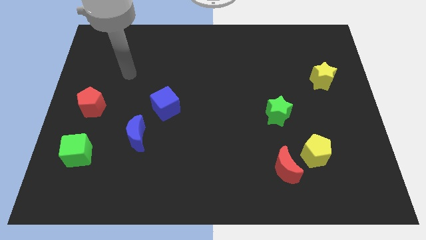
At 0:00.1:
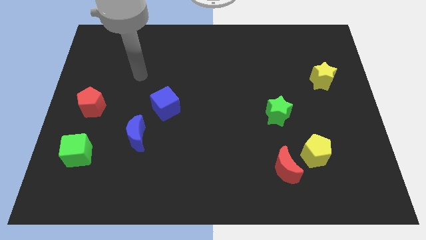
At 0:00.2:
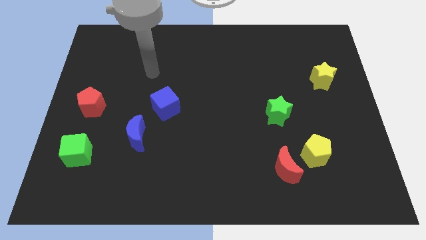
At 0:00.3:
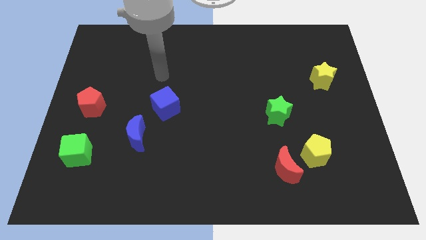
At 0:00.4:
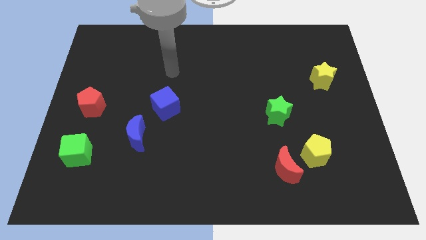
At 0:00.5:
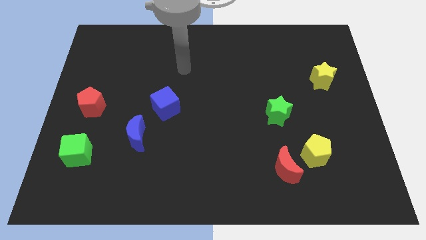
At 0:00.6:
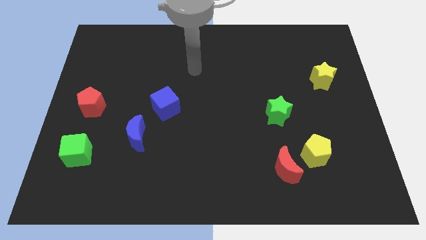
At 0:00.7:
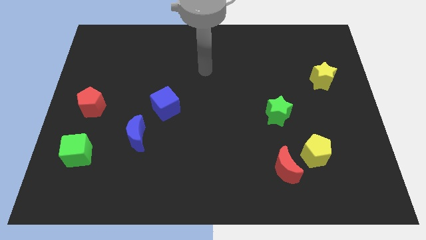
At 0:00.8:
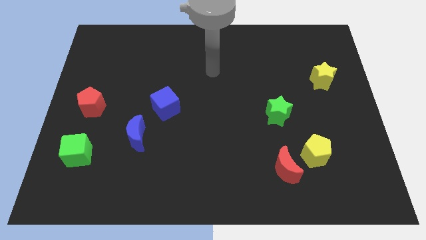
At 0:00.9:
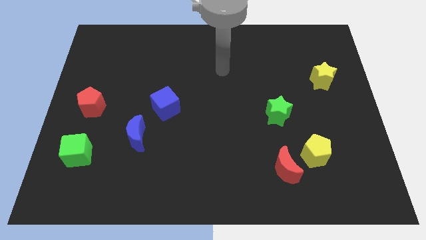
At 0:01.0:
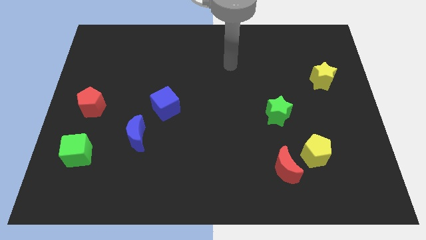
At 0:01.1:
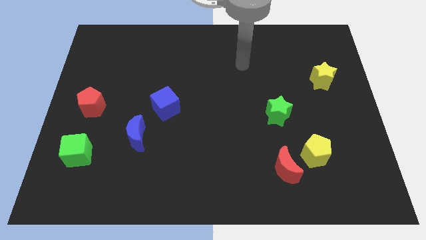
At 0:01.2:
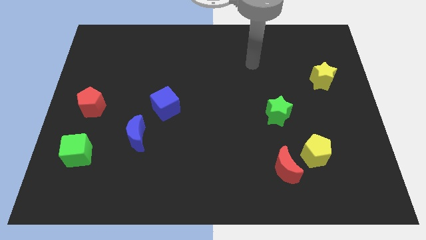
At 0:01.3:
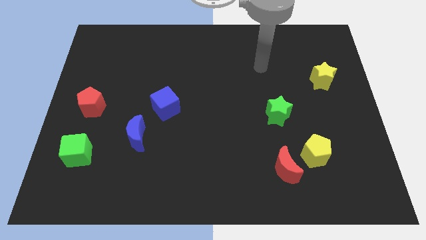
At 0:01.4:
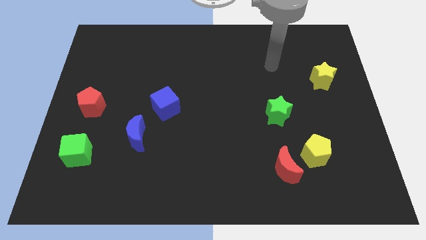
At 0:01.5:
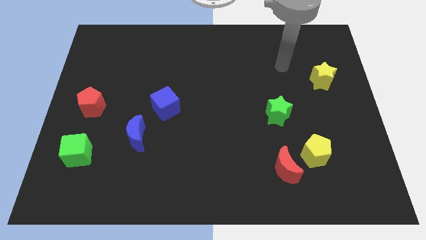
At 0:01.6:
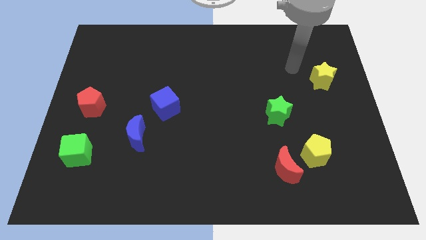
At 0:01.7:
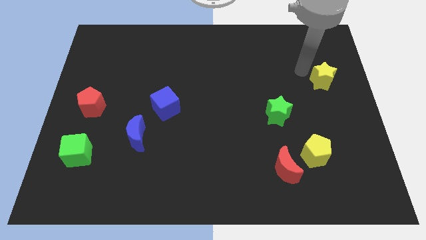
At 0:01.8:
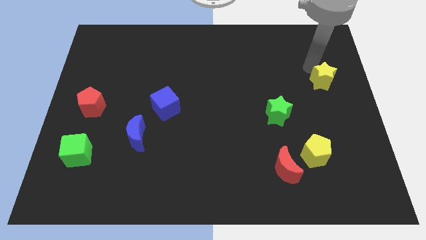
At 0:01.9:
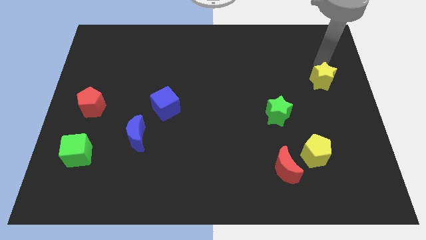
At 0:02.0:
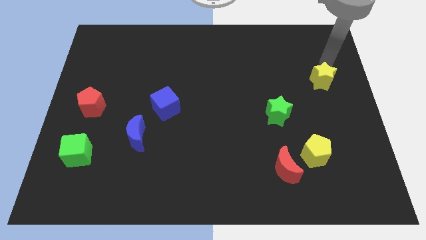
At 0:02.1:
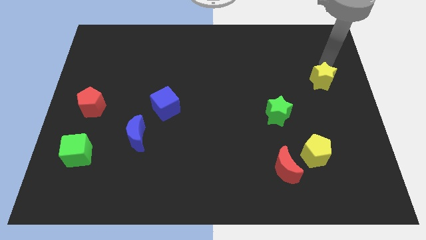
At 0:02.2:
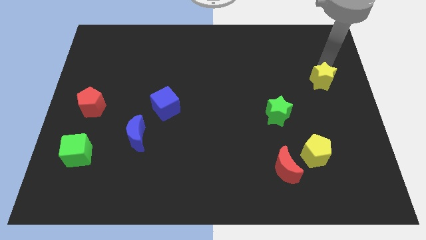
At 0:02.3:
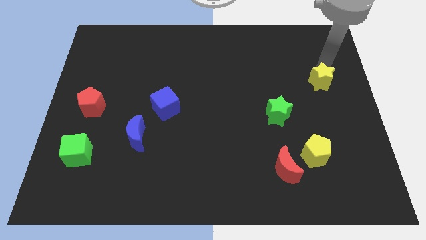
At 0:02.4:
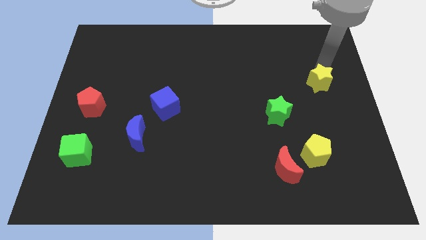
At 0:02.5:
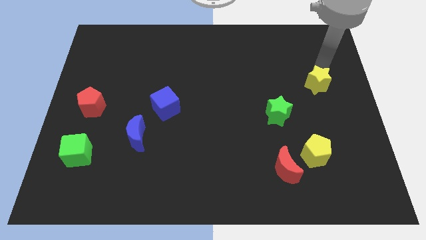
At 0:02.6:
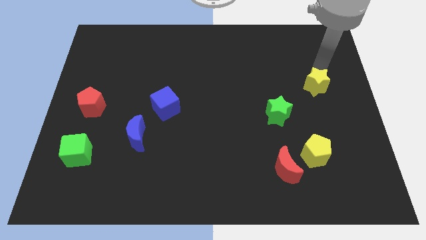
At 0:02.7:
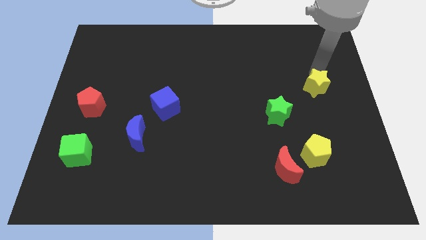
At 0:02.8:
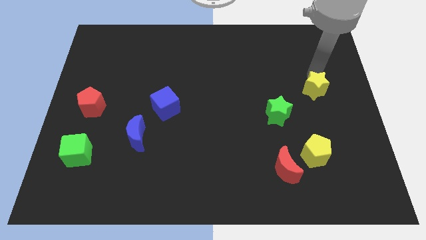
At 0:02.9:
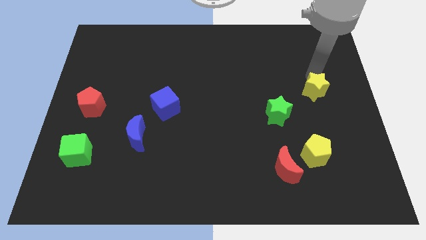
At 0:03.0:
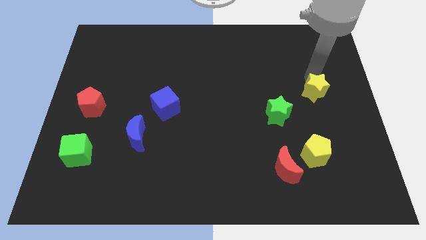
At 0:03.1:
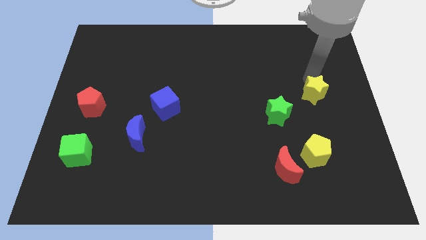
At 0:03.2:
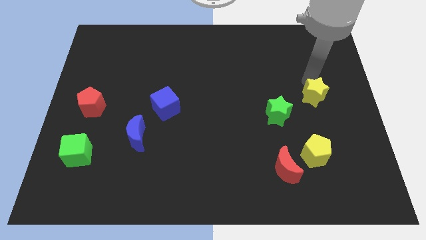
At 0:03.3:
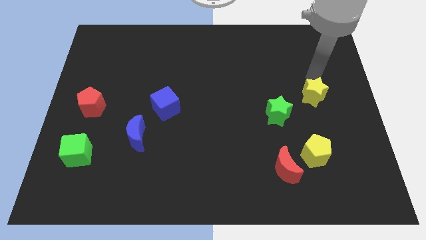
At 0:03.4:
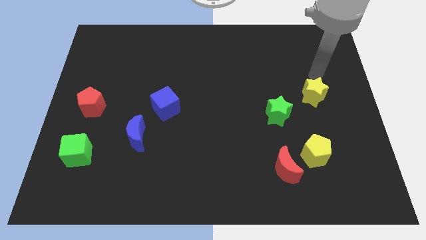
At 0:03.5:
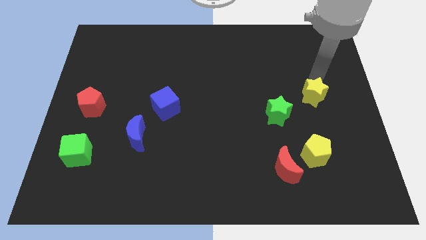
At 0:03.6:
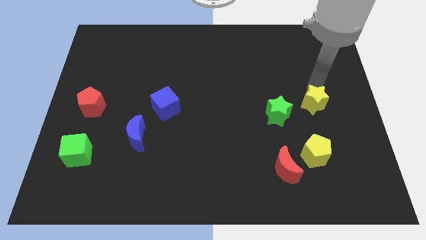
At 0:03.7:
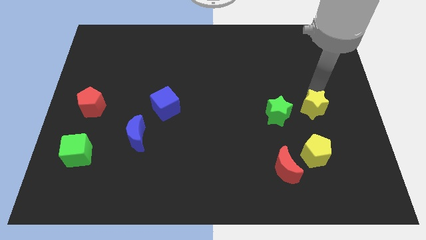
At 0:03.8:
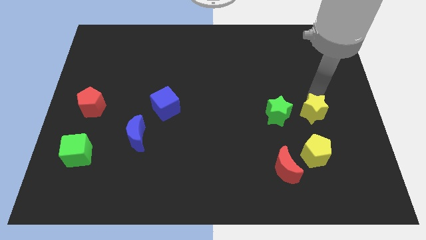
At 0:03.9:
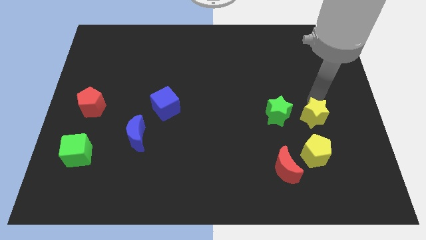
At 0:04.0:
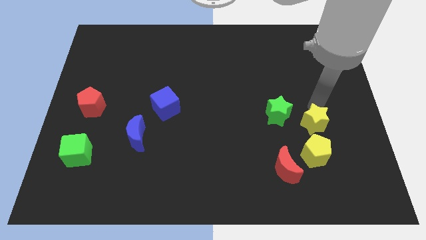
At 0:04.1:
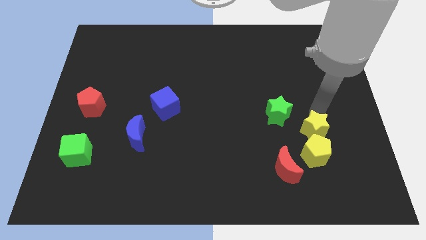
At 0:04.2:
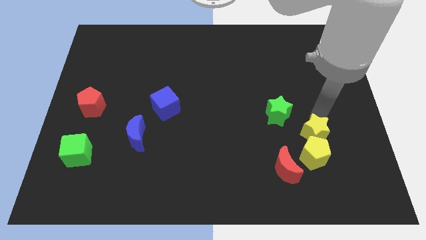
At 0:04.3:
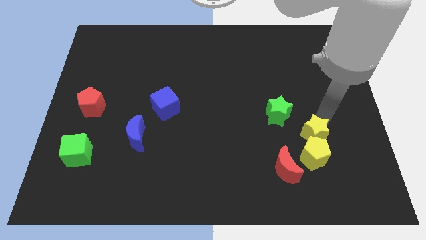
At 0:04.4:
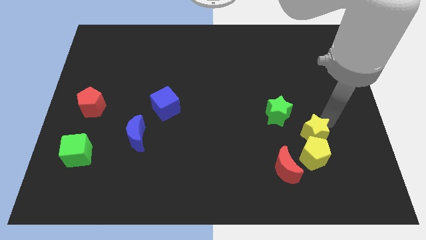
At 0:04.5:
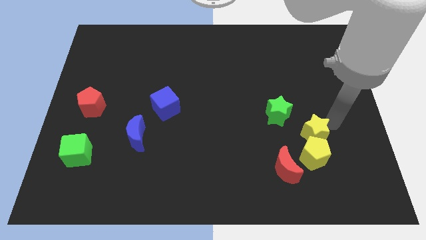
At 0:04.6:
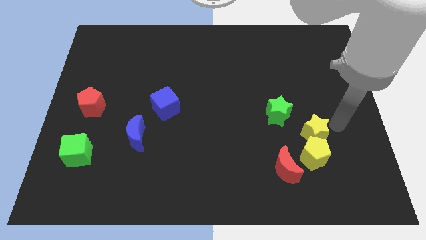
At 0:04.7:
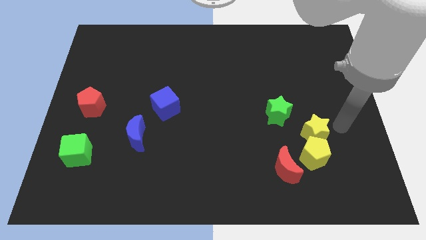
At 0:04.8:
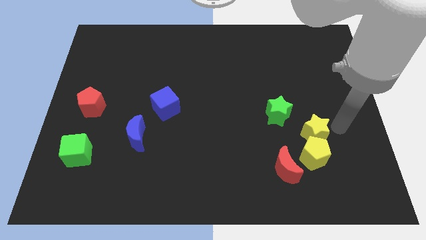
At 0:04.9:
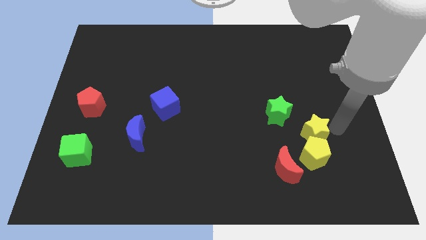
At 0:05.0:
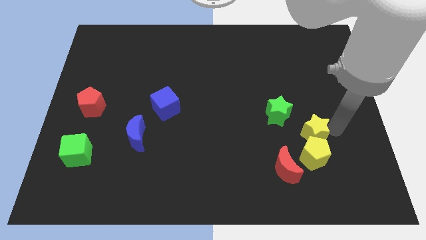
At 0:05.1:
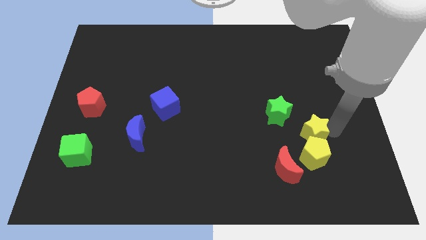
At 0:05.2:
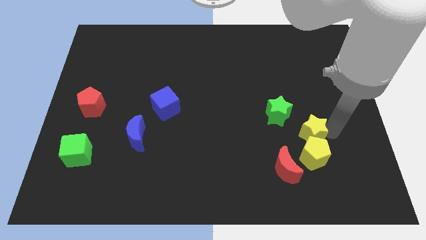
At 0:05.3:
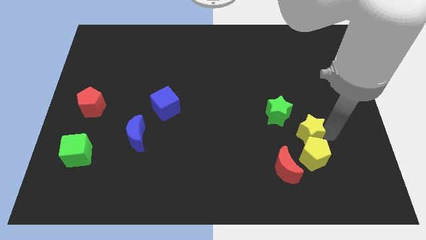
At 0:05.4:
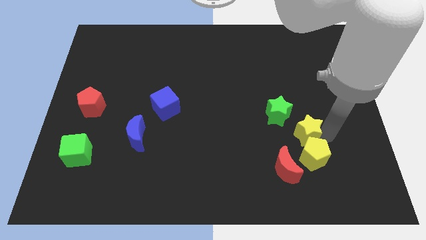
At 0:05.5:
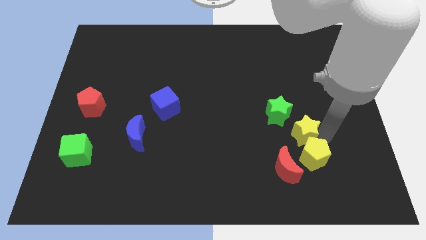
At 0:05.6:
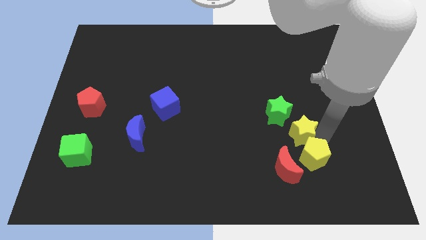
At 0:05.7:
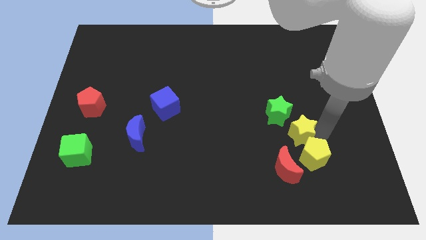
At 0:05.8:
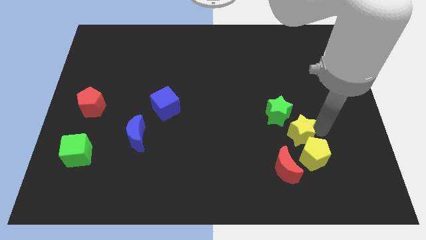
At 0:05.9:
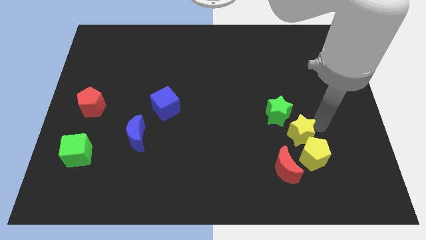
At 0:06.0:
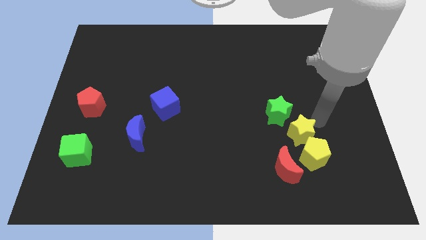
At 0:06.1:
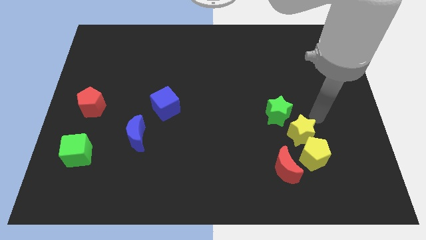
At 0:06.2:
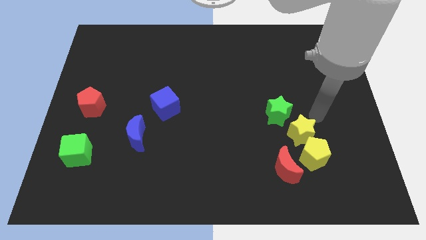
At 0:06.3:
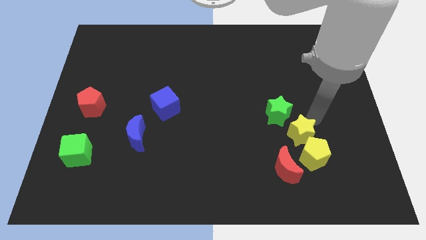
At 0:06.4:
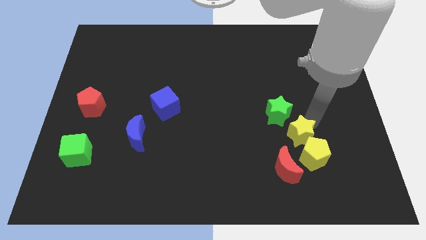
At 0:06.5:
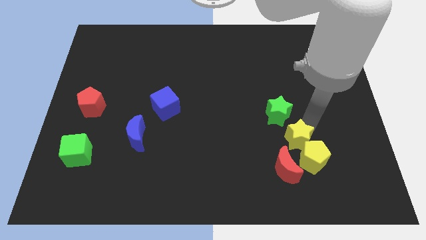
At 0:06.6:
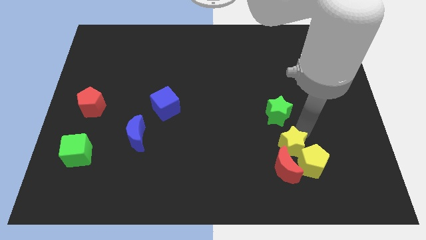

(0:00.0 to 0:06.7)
move the yellow star to the red moon

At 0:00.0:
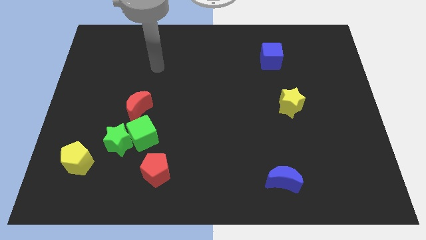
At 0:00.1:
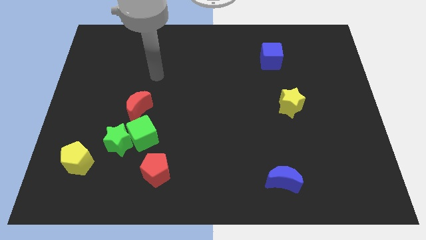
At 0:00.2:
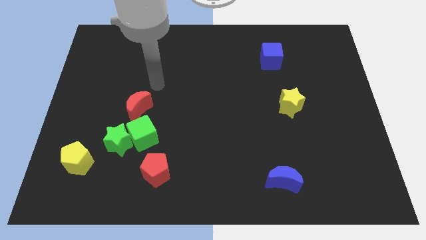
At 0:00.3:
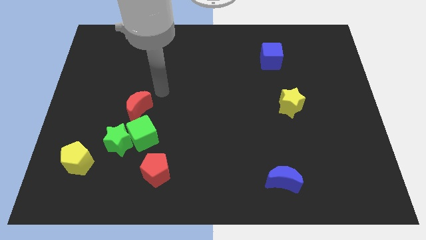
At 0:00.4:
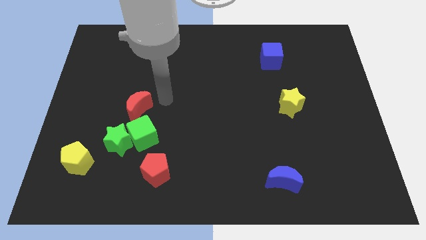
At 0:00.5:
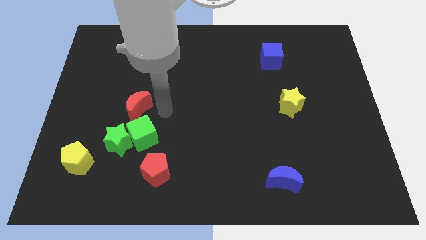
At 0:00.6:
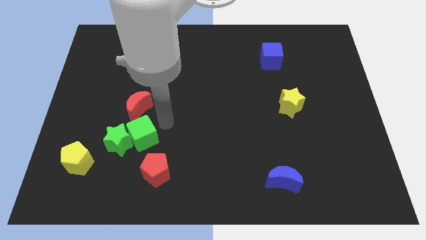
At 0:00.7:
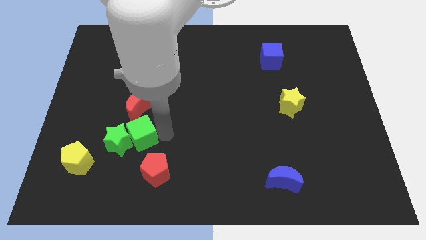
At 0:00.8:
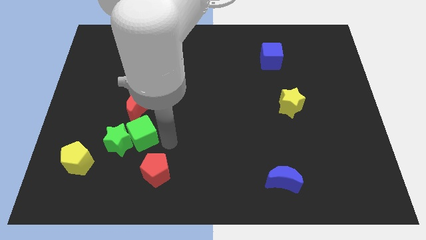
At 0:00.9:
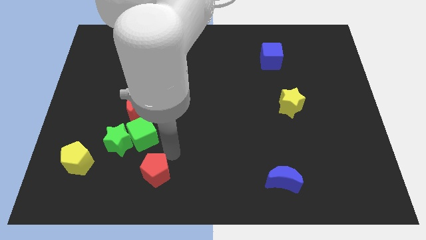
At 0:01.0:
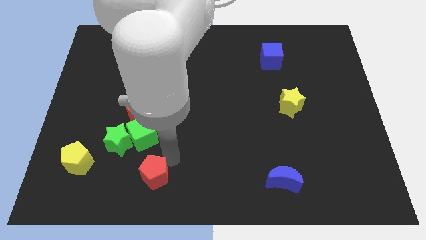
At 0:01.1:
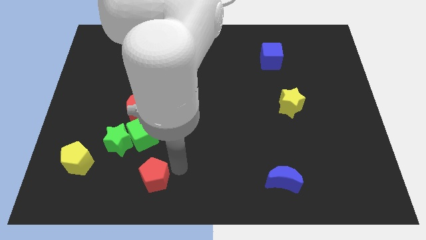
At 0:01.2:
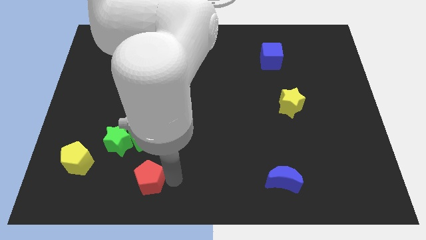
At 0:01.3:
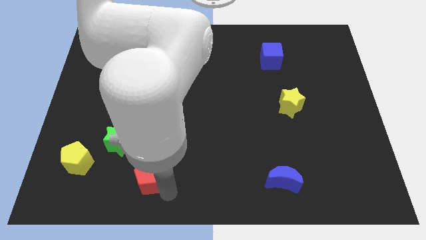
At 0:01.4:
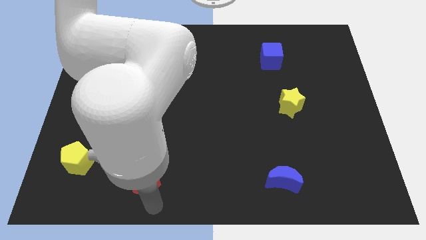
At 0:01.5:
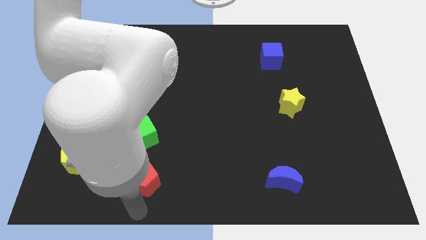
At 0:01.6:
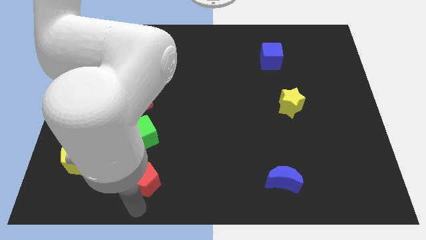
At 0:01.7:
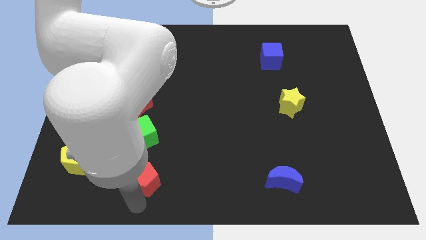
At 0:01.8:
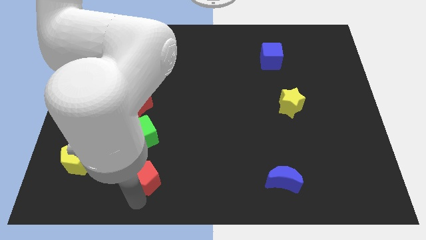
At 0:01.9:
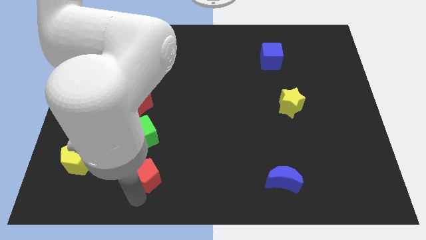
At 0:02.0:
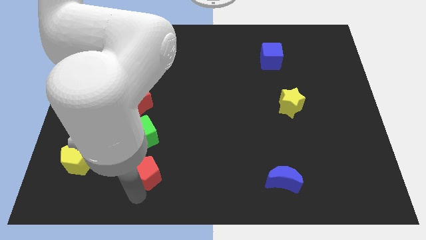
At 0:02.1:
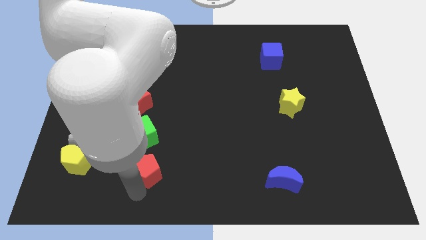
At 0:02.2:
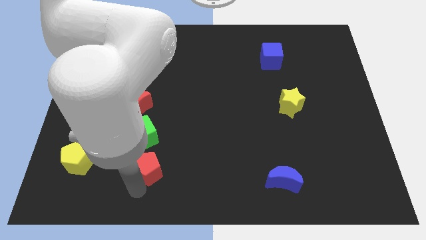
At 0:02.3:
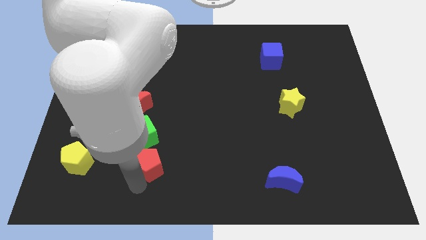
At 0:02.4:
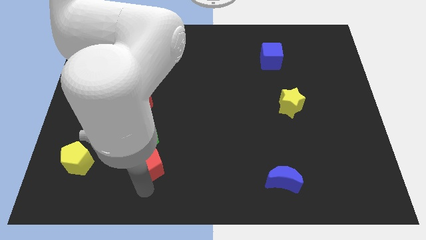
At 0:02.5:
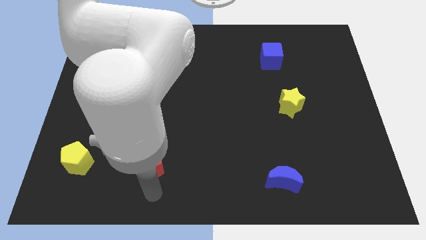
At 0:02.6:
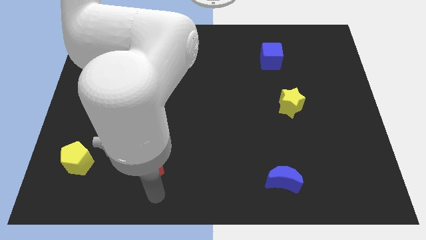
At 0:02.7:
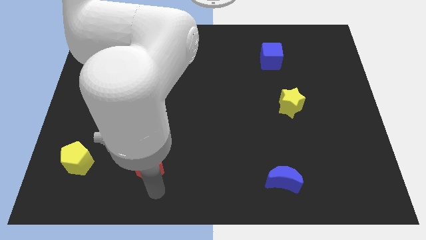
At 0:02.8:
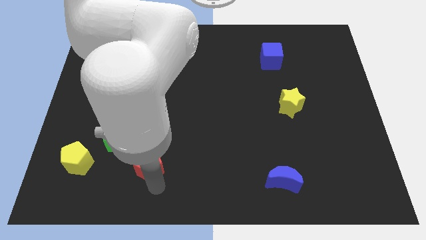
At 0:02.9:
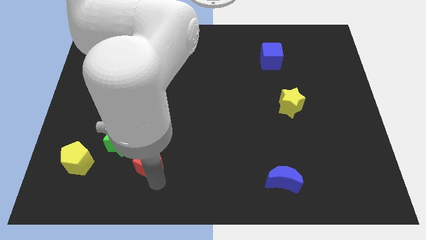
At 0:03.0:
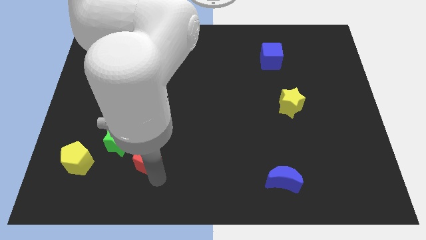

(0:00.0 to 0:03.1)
slide the red pentagon to the green cube
